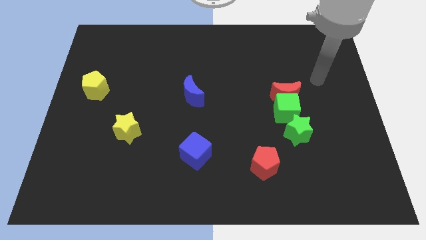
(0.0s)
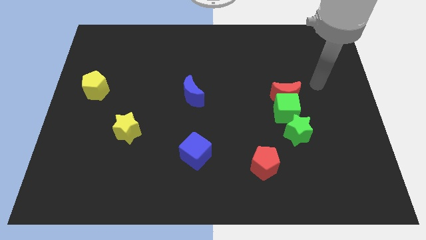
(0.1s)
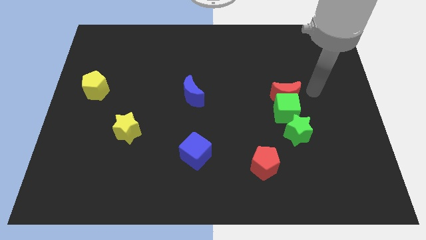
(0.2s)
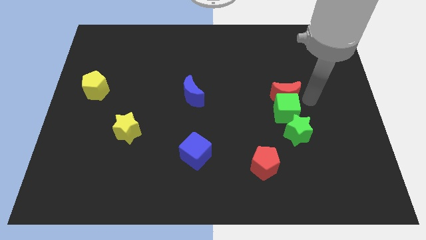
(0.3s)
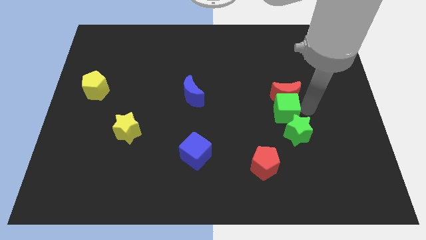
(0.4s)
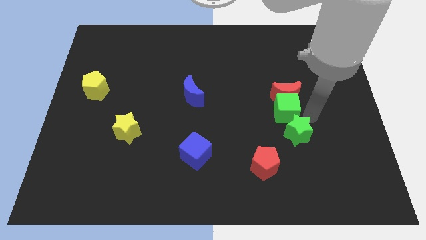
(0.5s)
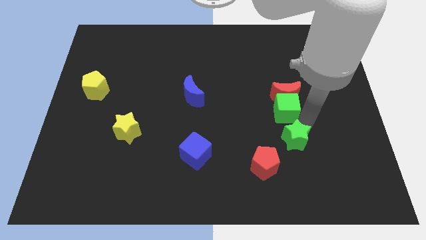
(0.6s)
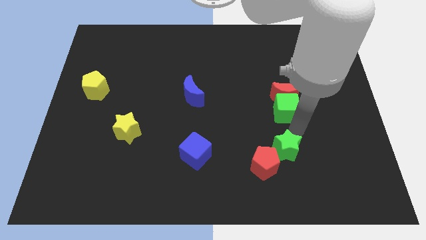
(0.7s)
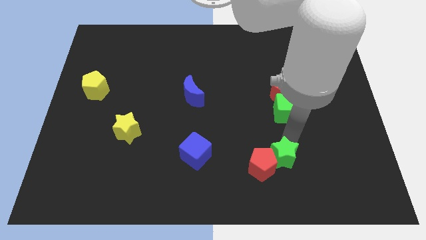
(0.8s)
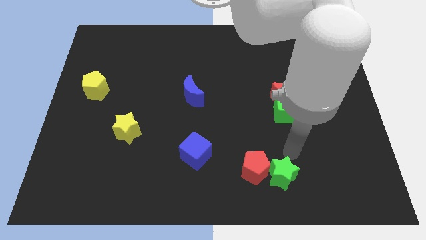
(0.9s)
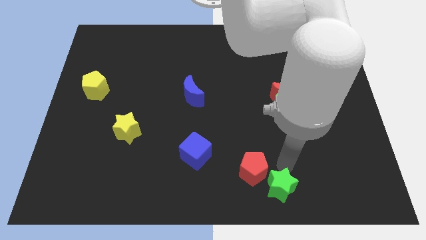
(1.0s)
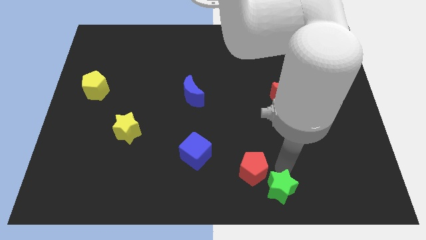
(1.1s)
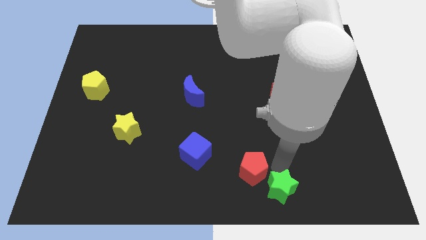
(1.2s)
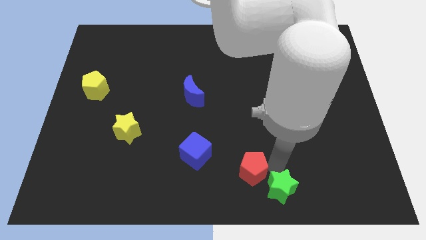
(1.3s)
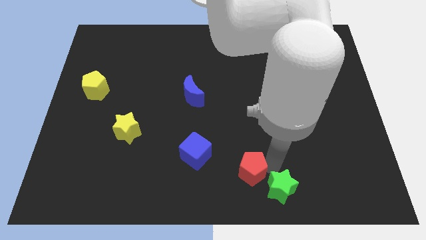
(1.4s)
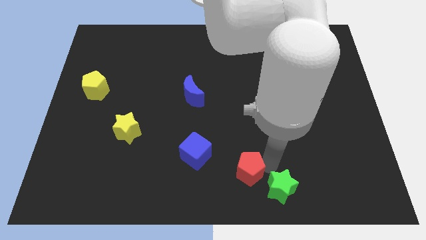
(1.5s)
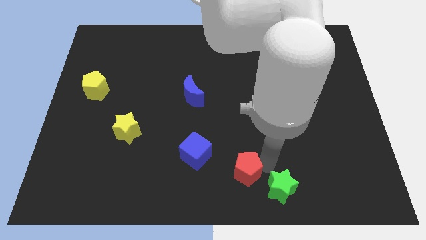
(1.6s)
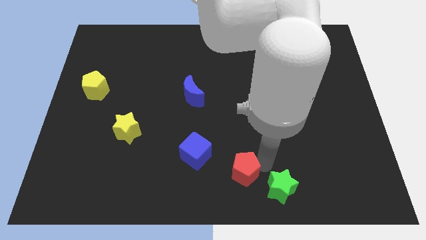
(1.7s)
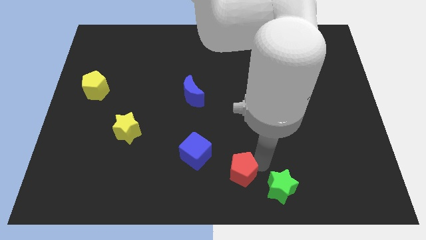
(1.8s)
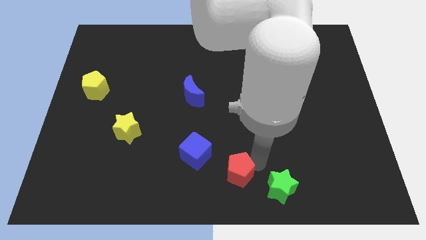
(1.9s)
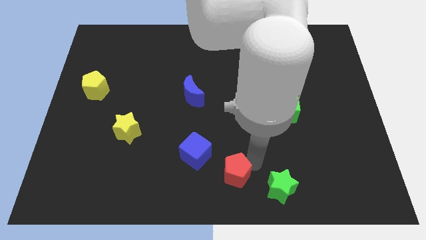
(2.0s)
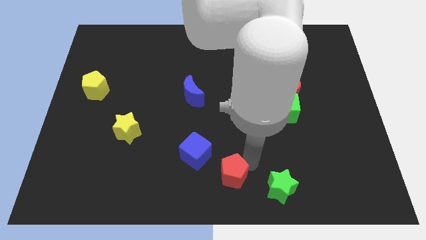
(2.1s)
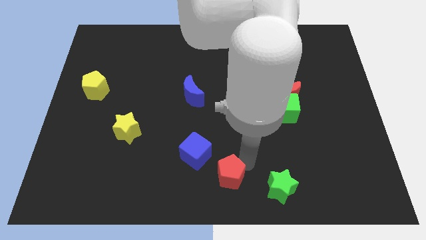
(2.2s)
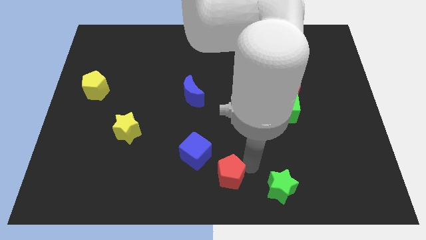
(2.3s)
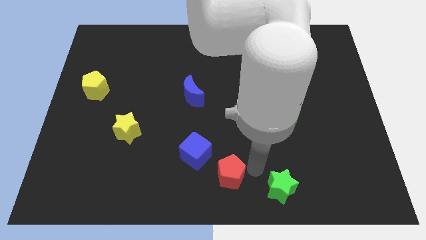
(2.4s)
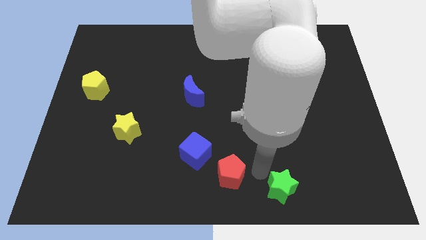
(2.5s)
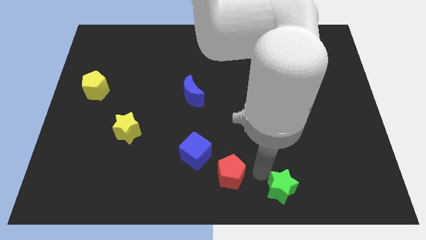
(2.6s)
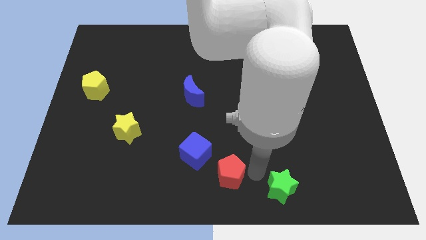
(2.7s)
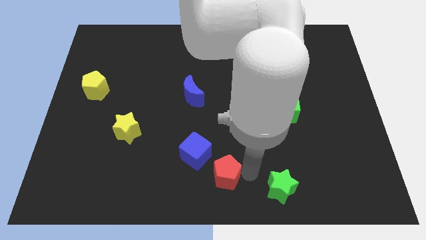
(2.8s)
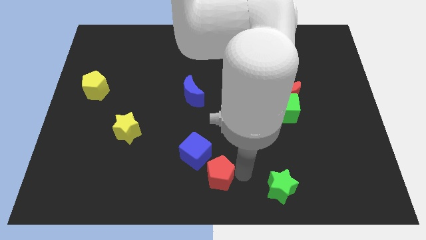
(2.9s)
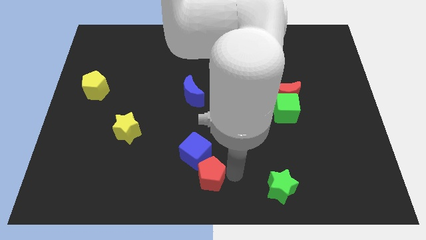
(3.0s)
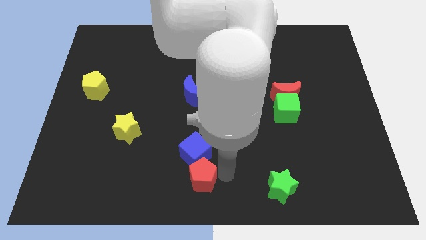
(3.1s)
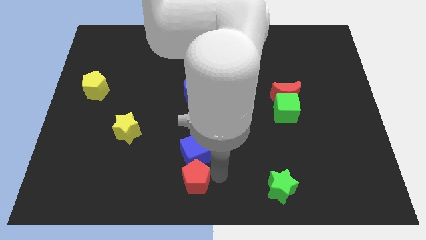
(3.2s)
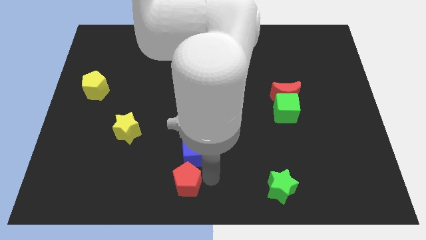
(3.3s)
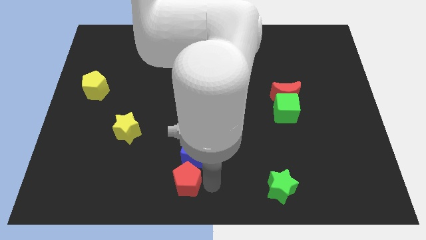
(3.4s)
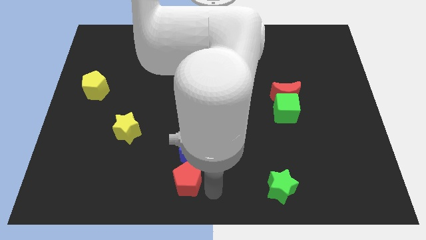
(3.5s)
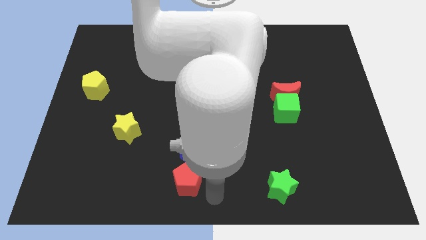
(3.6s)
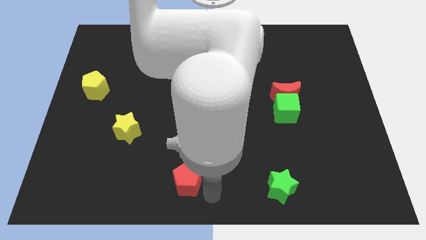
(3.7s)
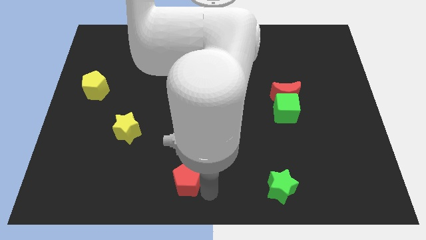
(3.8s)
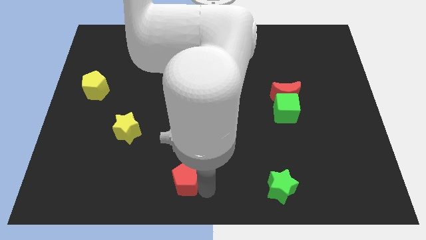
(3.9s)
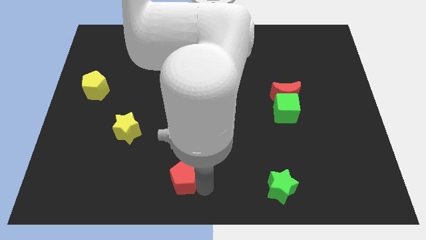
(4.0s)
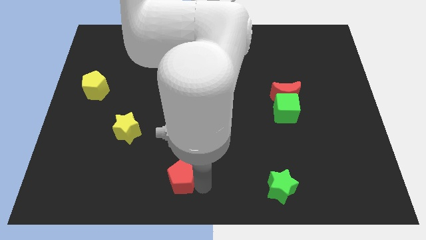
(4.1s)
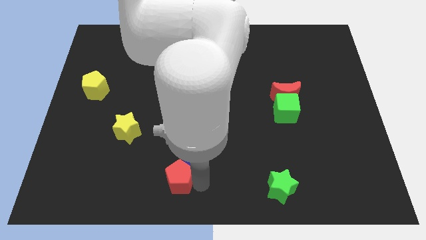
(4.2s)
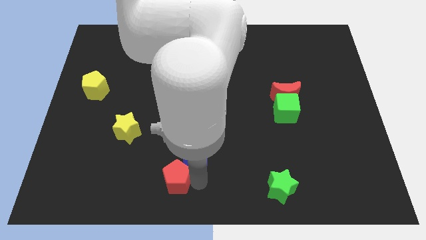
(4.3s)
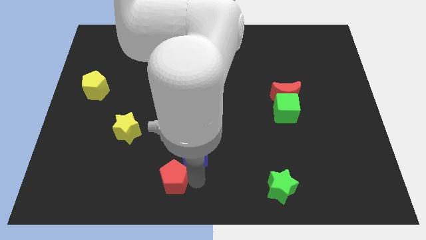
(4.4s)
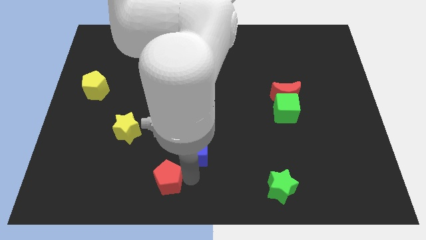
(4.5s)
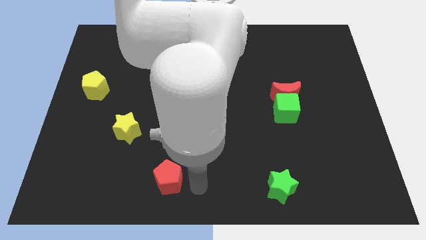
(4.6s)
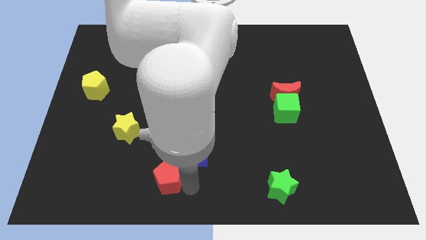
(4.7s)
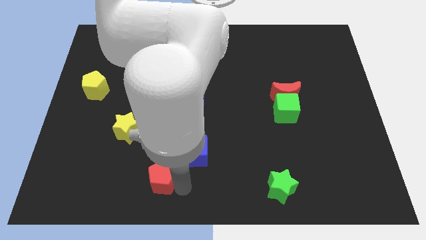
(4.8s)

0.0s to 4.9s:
slide the red pentagon to the left

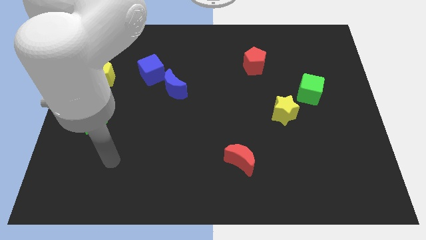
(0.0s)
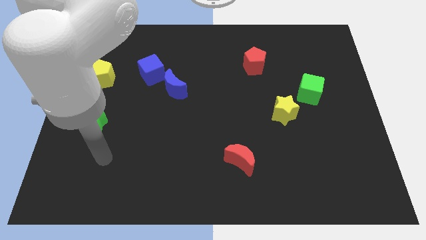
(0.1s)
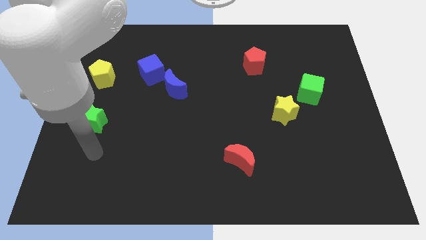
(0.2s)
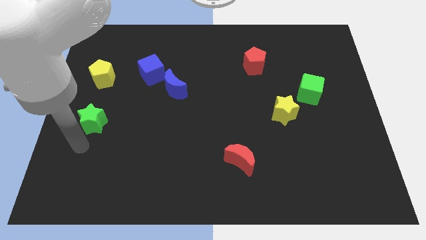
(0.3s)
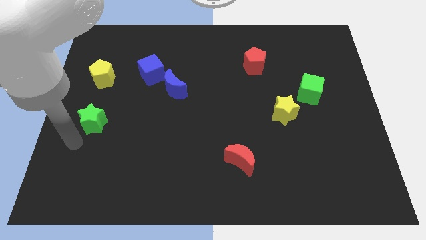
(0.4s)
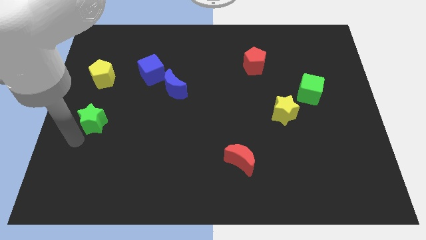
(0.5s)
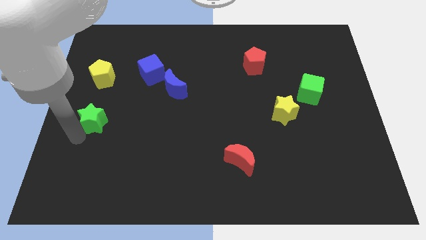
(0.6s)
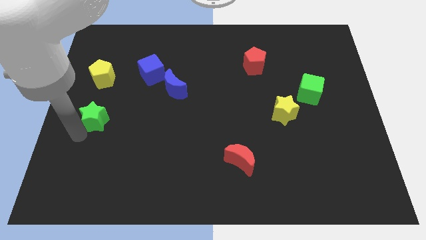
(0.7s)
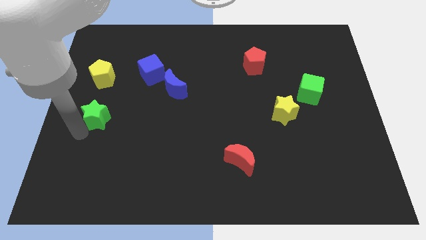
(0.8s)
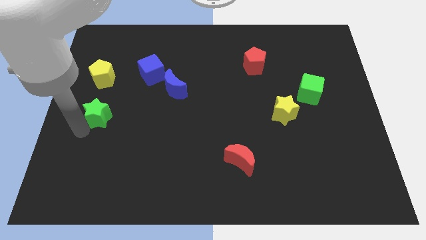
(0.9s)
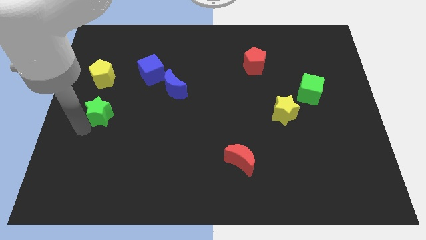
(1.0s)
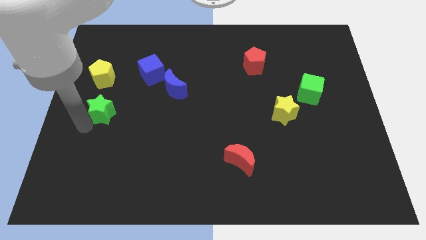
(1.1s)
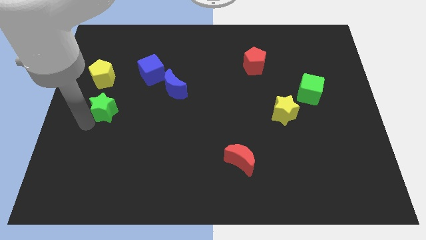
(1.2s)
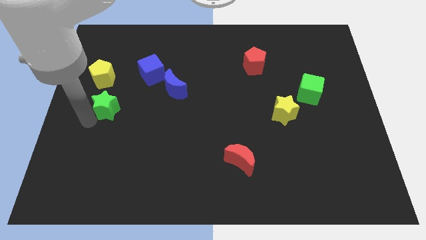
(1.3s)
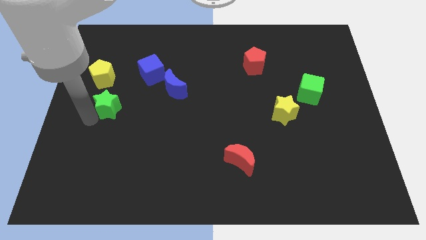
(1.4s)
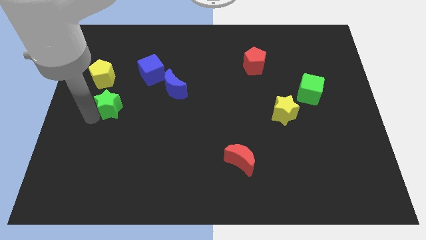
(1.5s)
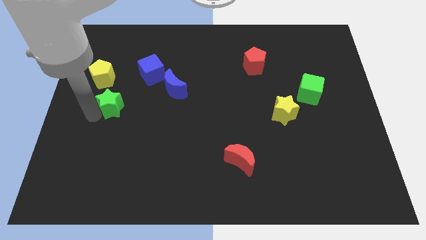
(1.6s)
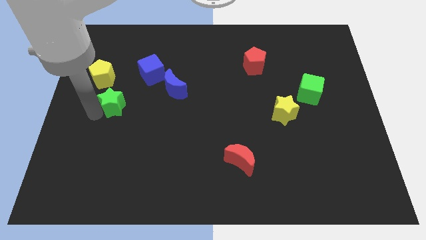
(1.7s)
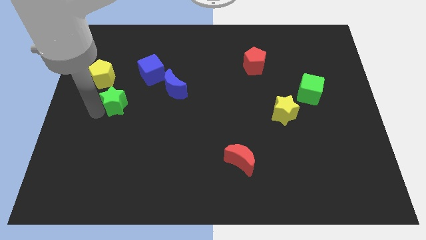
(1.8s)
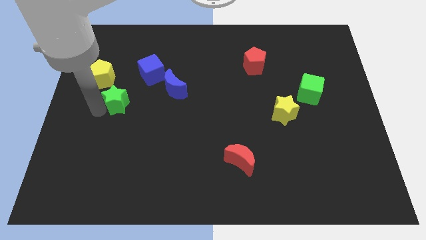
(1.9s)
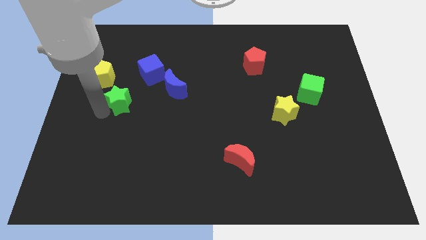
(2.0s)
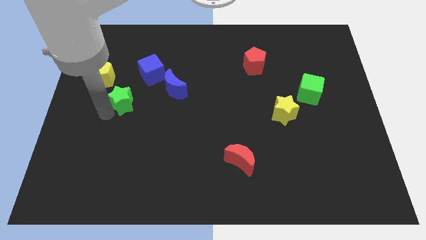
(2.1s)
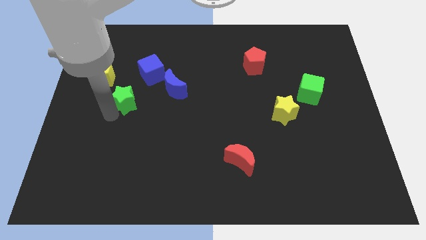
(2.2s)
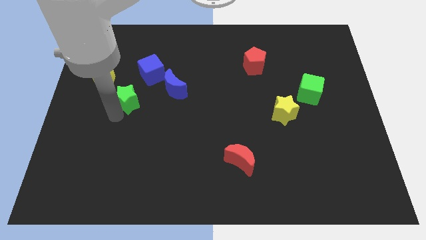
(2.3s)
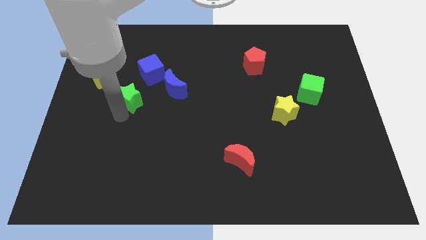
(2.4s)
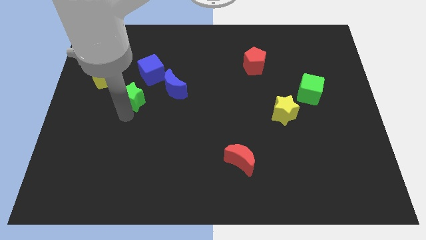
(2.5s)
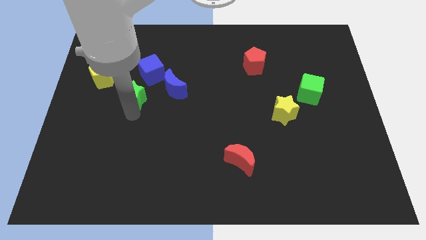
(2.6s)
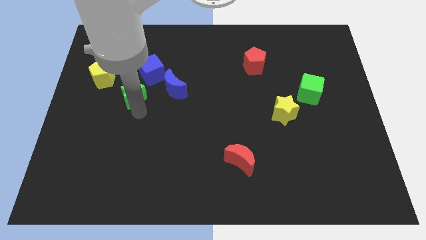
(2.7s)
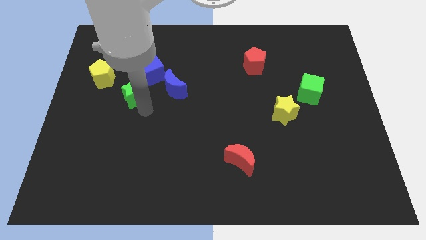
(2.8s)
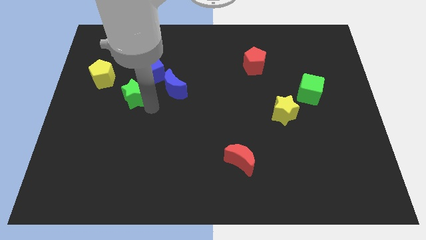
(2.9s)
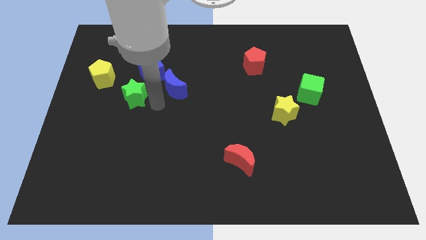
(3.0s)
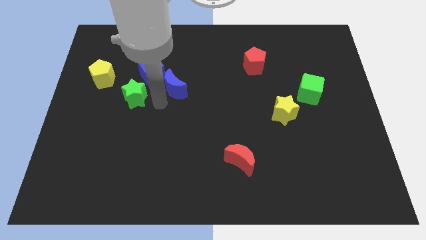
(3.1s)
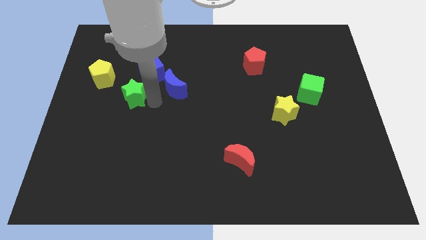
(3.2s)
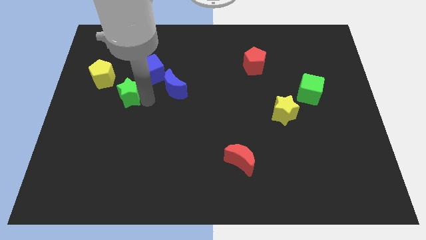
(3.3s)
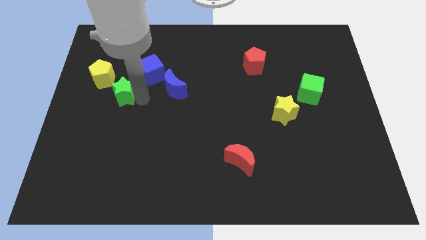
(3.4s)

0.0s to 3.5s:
slide the green star up a little bit
